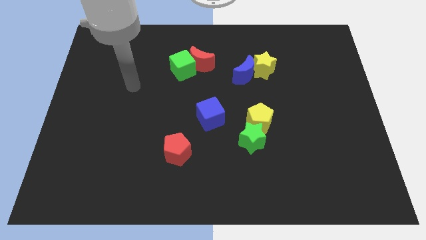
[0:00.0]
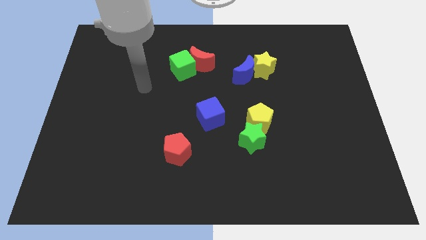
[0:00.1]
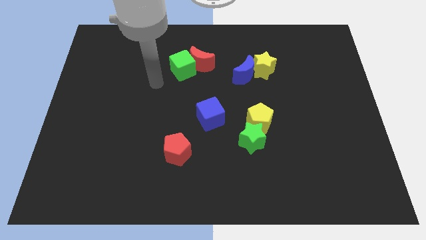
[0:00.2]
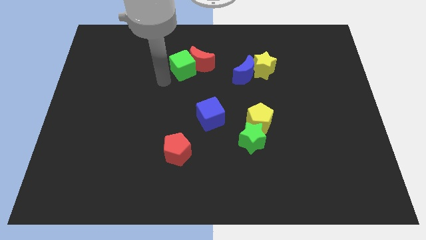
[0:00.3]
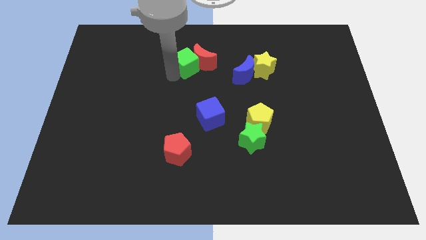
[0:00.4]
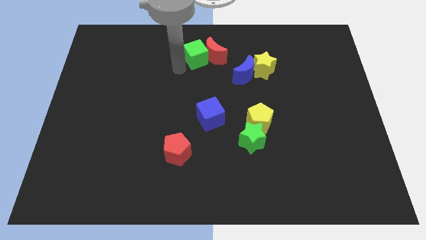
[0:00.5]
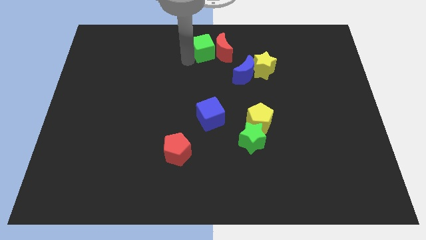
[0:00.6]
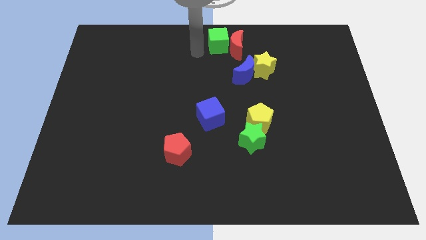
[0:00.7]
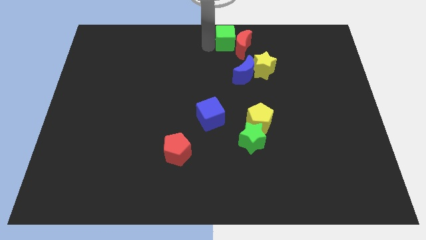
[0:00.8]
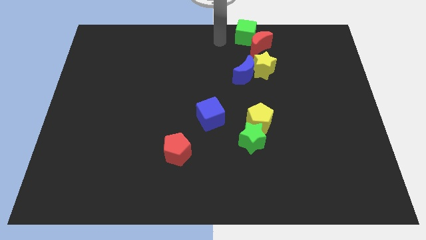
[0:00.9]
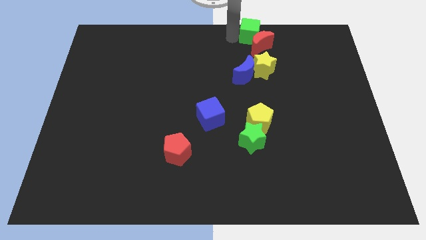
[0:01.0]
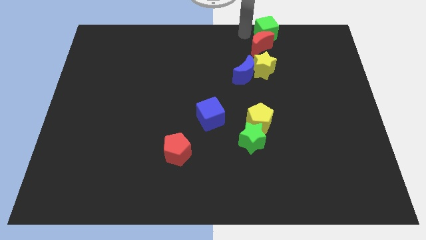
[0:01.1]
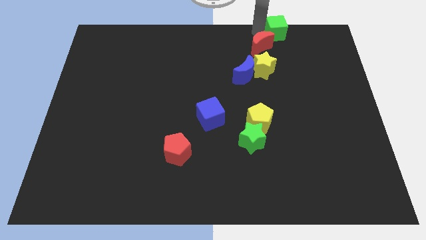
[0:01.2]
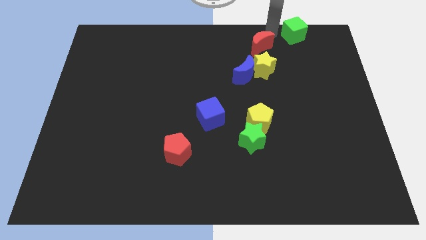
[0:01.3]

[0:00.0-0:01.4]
separate the red moon from the green cube

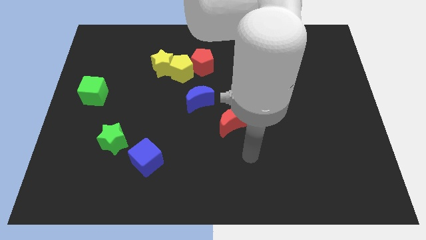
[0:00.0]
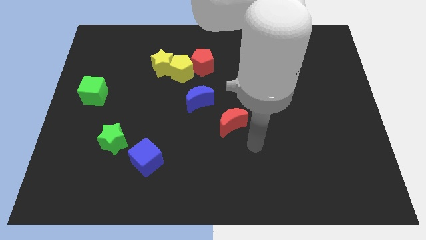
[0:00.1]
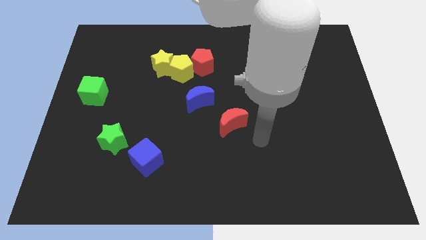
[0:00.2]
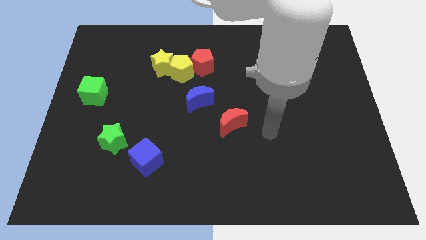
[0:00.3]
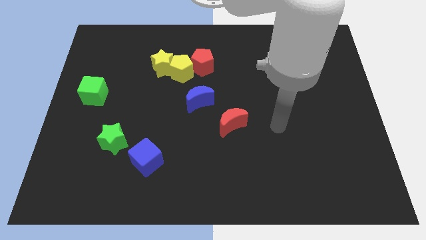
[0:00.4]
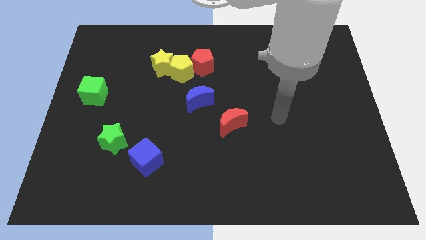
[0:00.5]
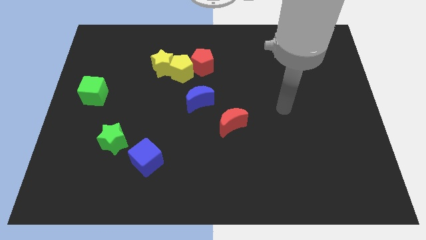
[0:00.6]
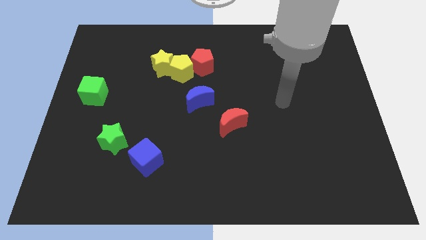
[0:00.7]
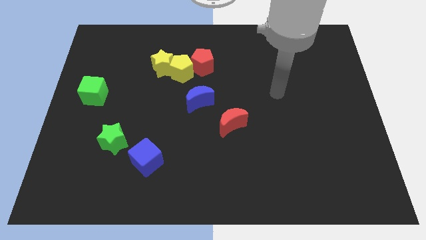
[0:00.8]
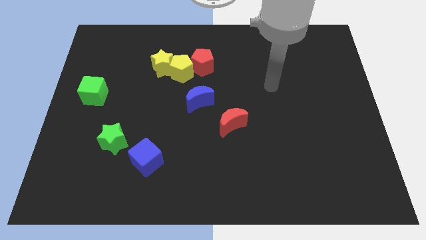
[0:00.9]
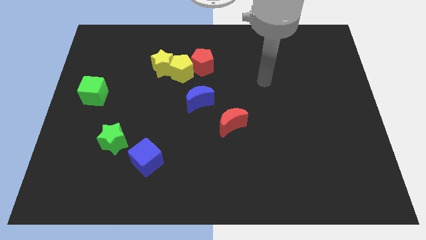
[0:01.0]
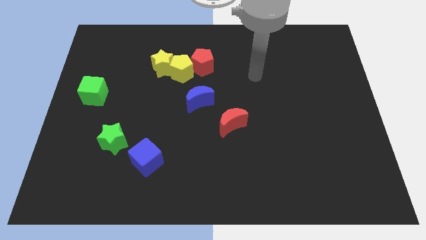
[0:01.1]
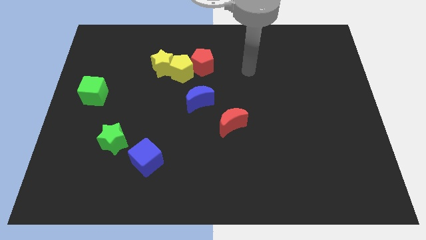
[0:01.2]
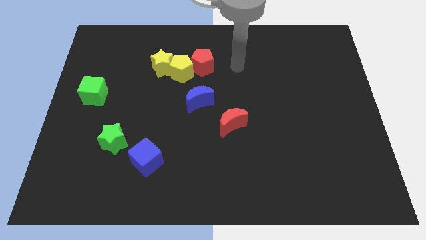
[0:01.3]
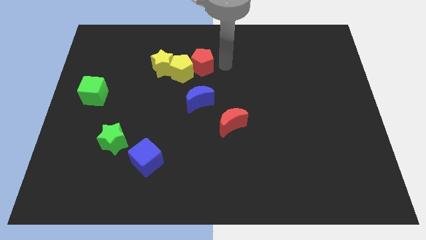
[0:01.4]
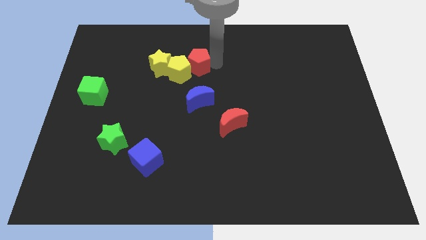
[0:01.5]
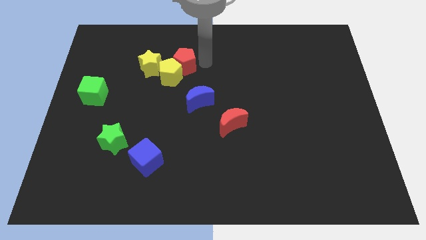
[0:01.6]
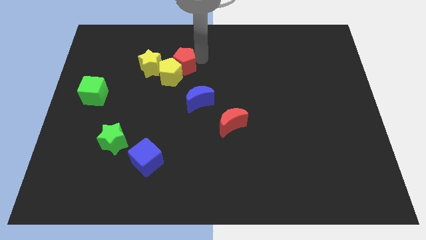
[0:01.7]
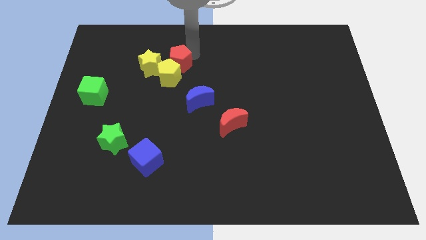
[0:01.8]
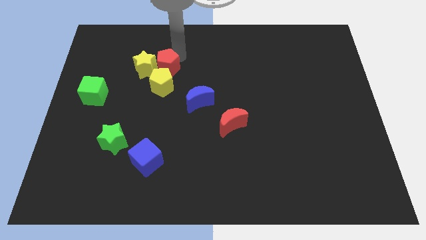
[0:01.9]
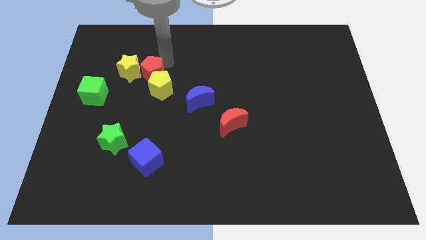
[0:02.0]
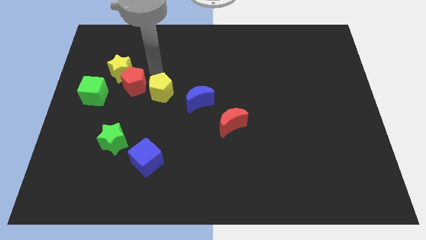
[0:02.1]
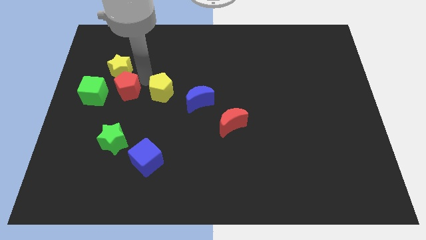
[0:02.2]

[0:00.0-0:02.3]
pull the yellow pentagon apart from the yellow star and red pentagon

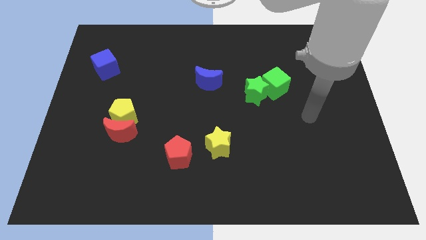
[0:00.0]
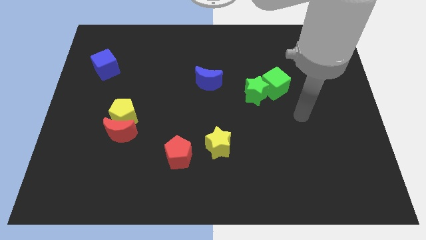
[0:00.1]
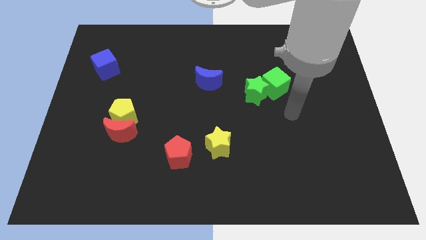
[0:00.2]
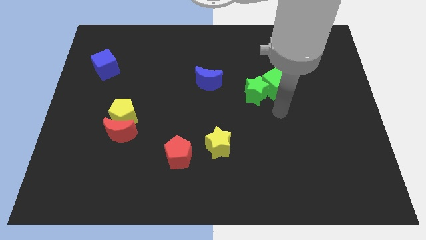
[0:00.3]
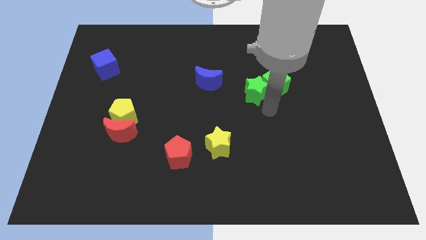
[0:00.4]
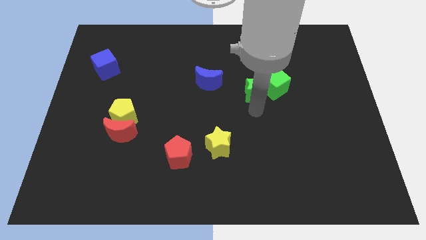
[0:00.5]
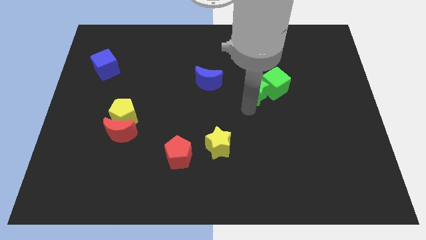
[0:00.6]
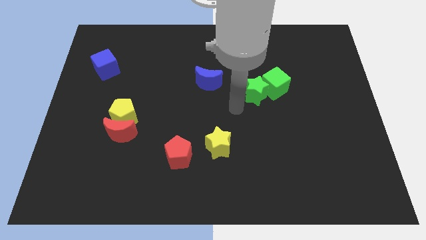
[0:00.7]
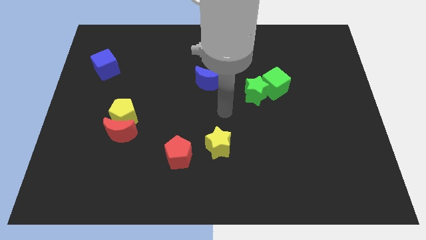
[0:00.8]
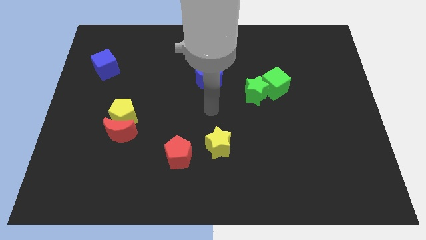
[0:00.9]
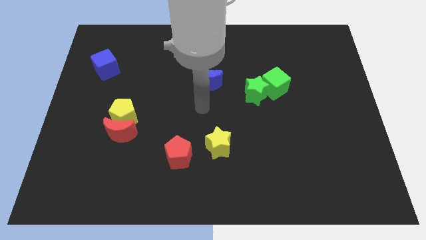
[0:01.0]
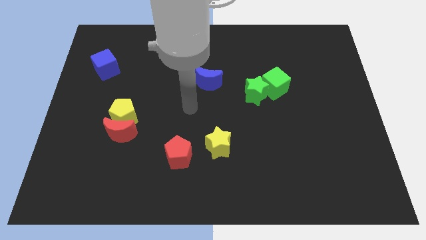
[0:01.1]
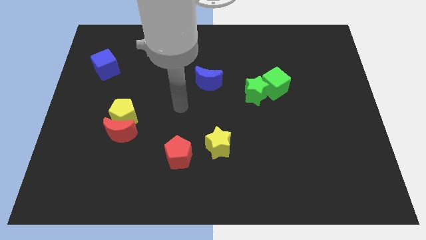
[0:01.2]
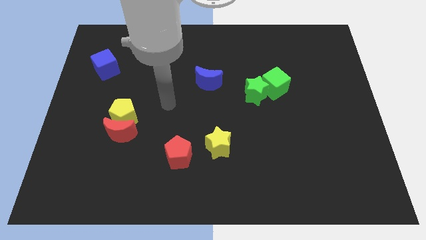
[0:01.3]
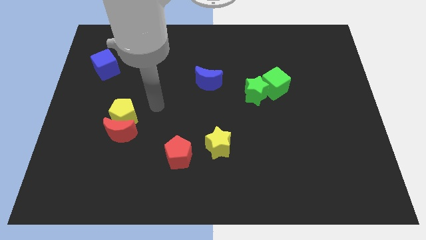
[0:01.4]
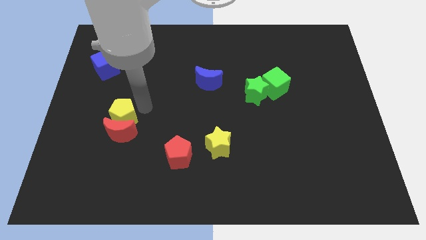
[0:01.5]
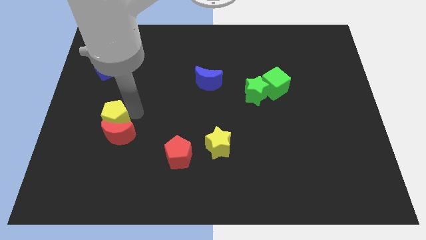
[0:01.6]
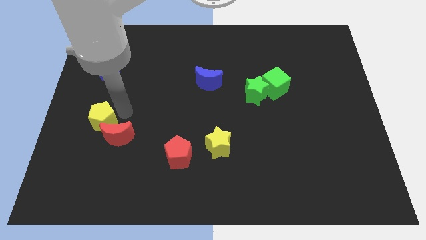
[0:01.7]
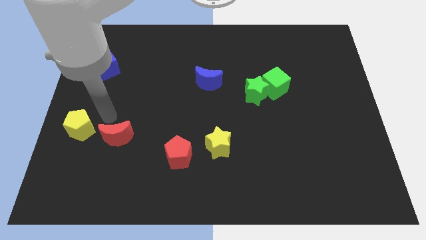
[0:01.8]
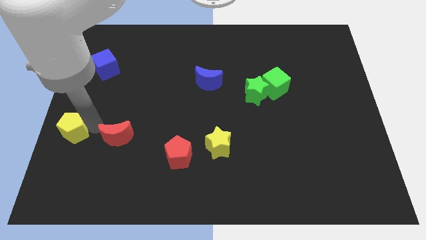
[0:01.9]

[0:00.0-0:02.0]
separate the red moon from the yellow pentagon

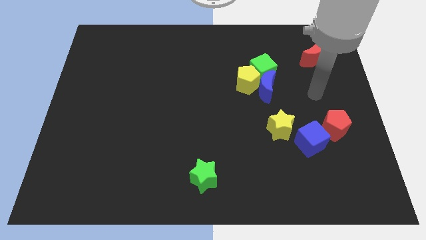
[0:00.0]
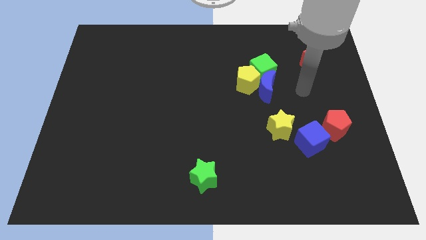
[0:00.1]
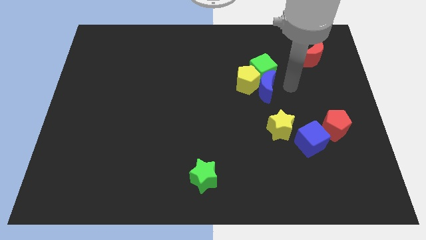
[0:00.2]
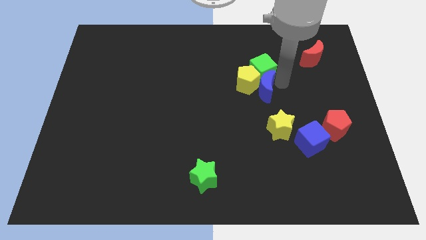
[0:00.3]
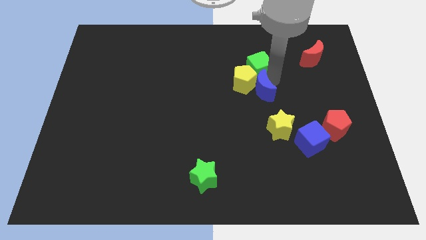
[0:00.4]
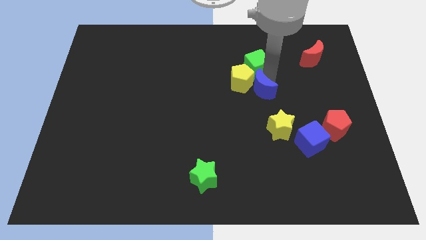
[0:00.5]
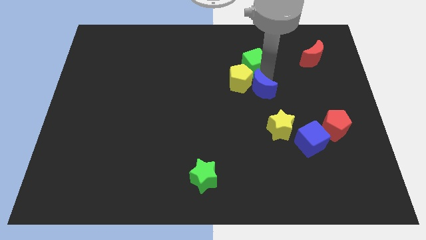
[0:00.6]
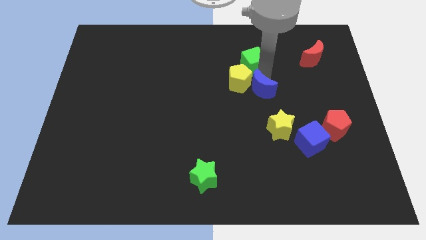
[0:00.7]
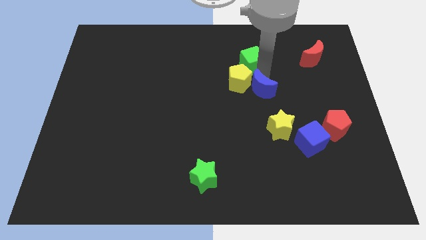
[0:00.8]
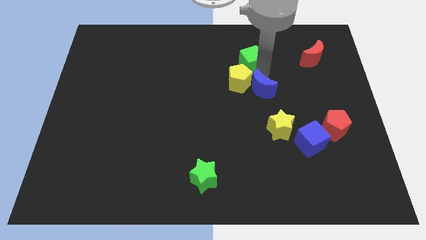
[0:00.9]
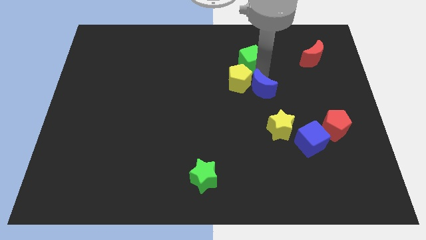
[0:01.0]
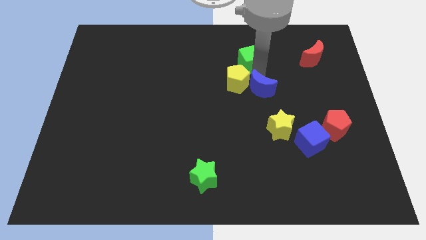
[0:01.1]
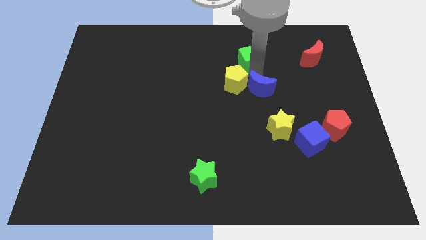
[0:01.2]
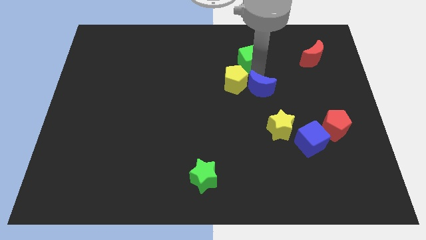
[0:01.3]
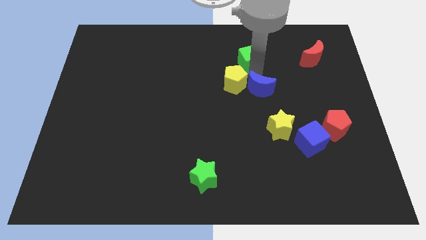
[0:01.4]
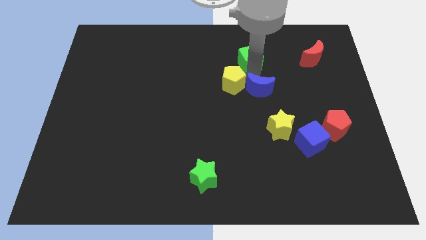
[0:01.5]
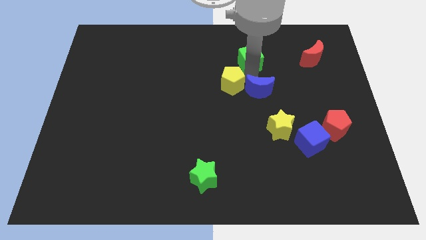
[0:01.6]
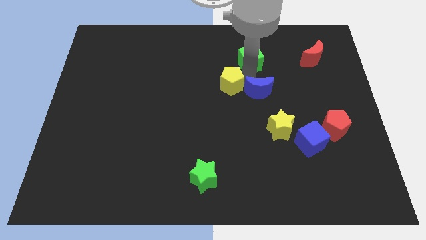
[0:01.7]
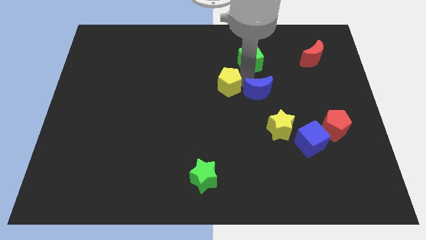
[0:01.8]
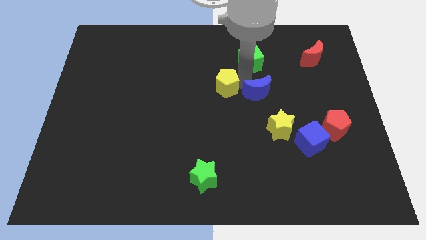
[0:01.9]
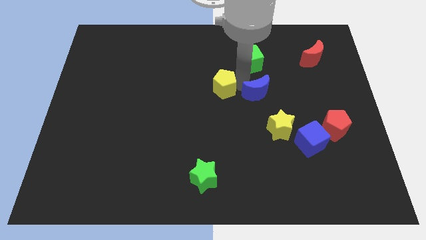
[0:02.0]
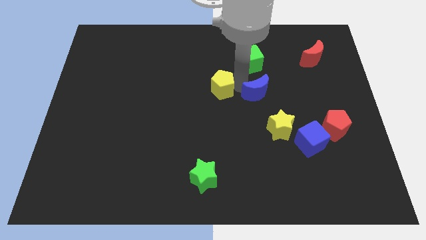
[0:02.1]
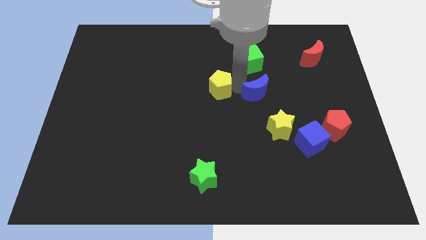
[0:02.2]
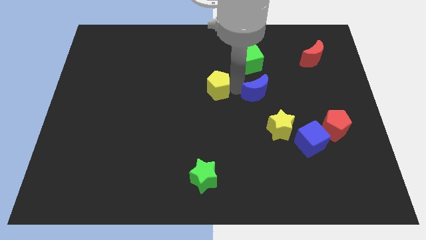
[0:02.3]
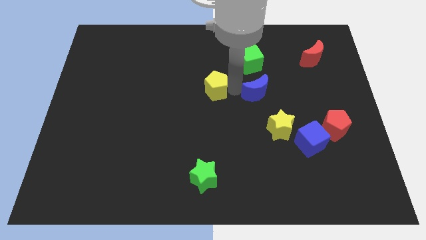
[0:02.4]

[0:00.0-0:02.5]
separate the yellow pentagon from the blue moon and green cube

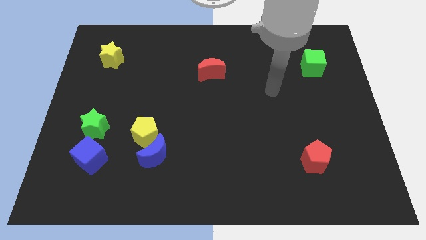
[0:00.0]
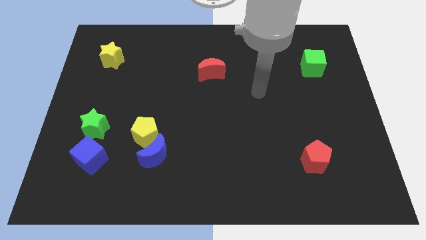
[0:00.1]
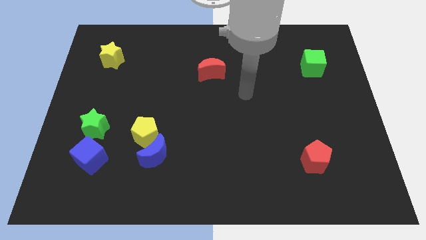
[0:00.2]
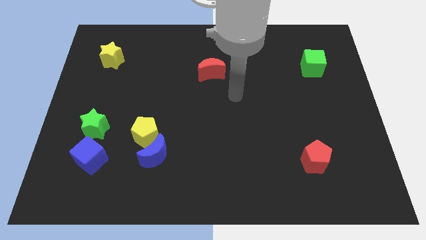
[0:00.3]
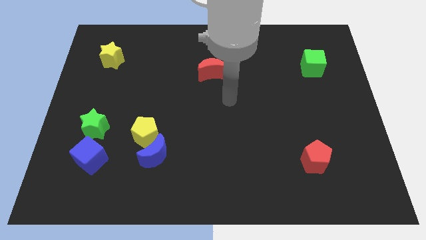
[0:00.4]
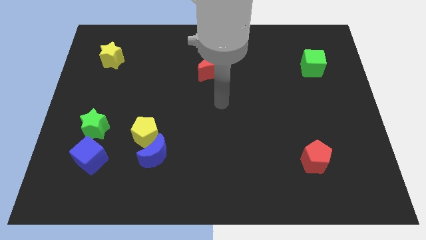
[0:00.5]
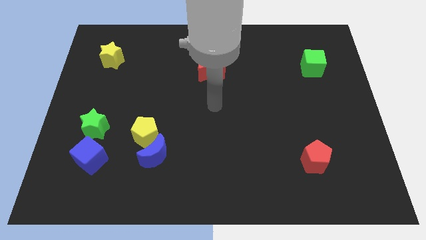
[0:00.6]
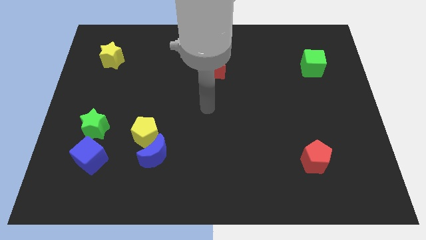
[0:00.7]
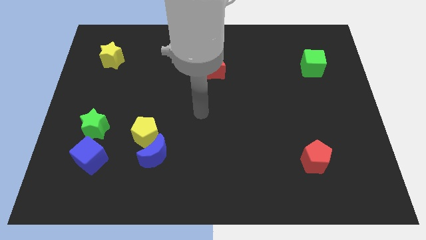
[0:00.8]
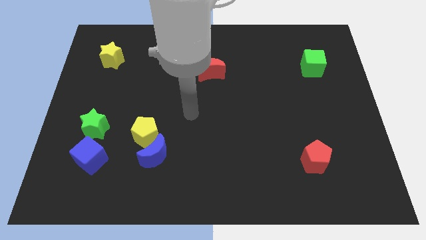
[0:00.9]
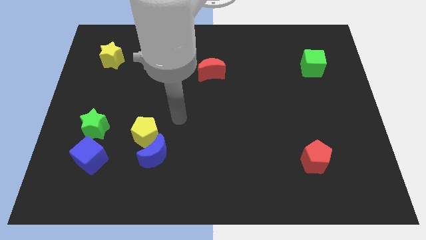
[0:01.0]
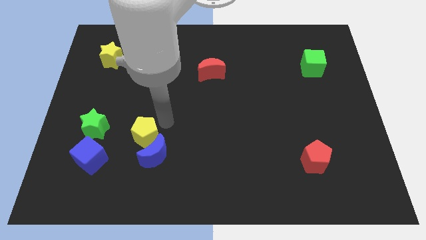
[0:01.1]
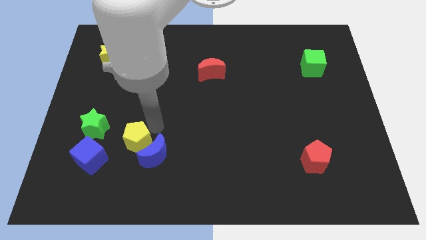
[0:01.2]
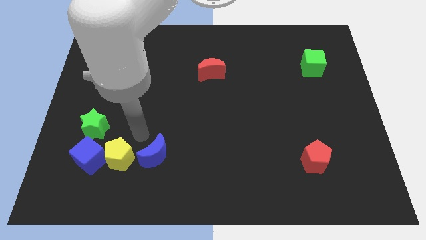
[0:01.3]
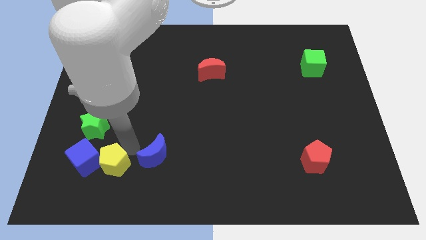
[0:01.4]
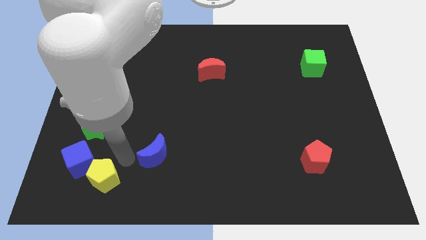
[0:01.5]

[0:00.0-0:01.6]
pull the blue moon apart from the yellow pentagon
